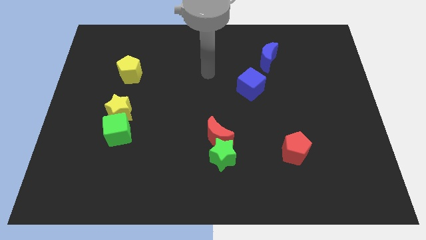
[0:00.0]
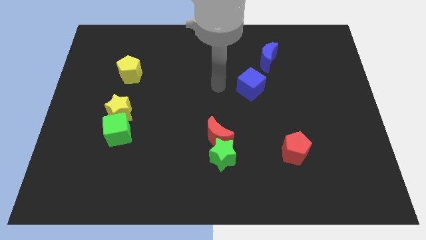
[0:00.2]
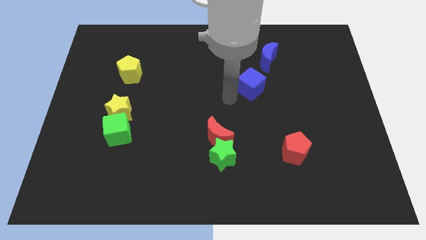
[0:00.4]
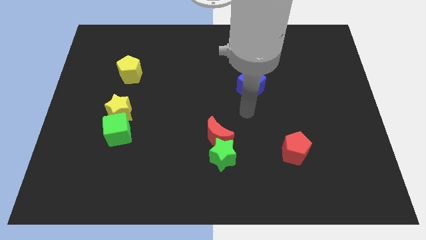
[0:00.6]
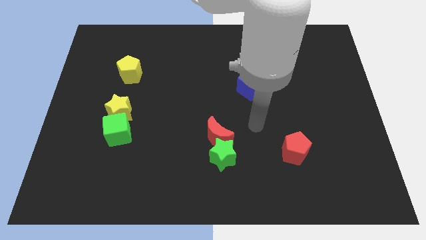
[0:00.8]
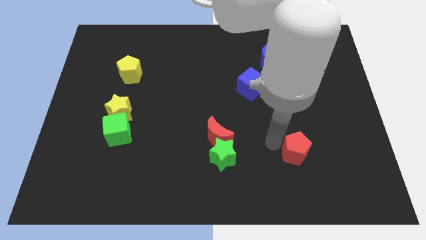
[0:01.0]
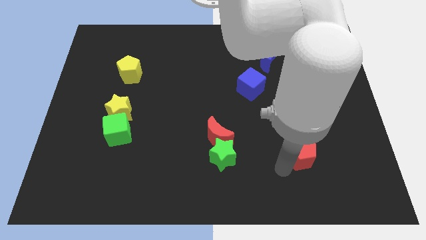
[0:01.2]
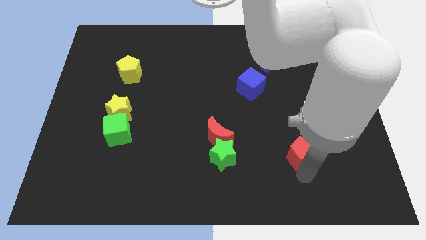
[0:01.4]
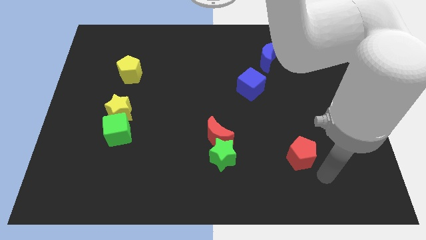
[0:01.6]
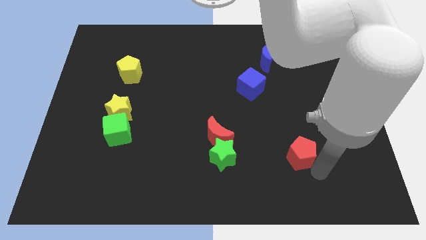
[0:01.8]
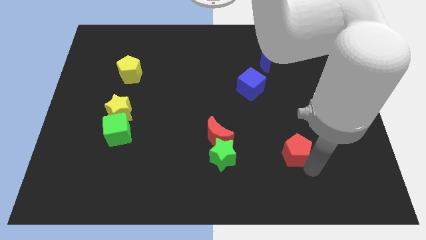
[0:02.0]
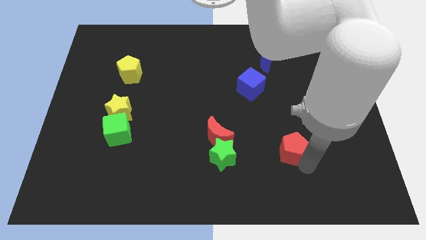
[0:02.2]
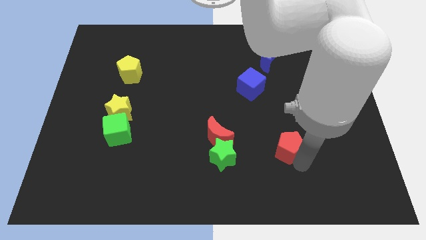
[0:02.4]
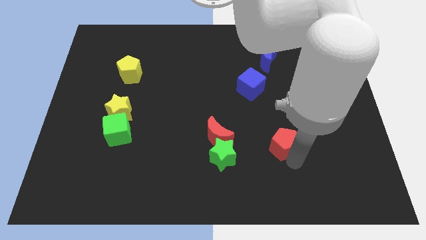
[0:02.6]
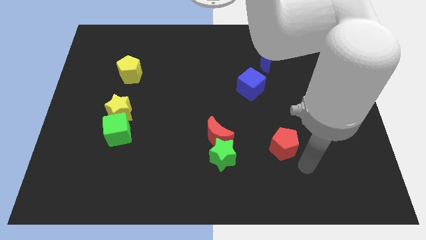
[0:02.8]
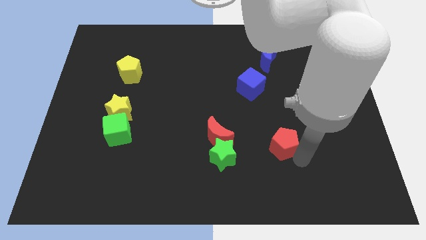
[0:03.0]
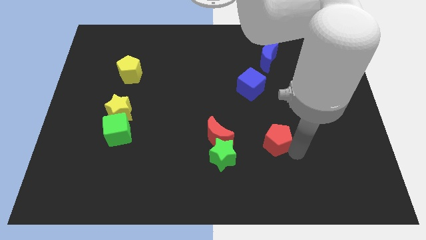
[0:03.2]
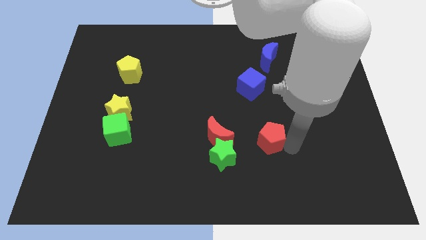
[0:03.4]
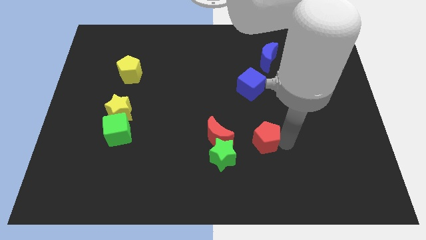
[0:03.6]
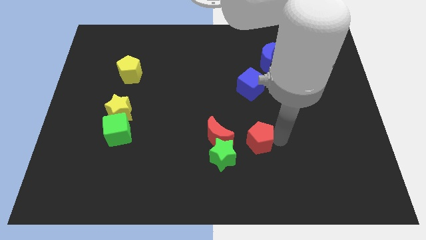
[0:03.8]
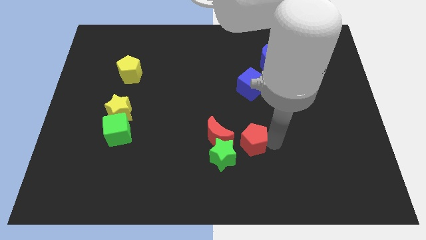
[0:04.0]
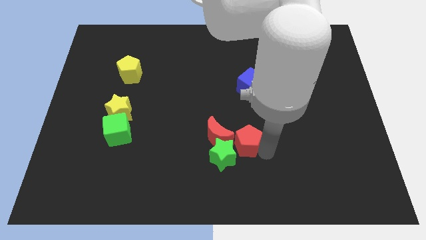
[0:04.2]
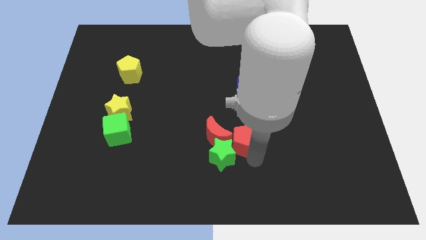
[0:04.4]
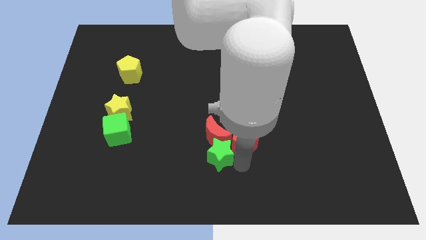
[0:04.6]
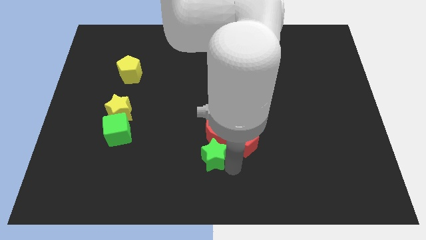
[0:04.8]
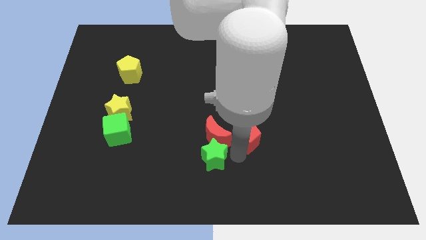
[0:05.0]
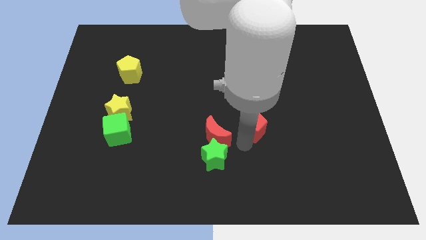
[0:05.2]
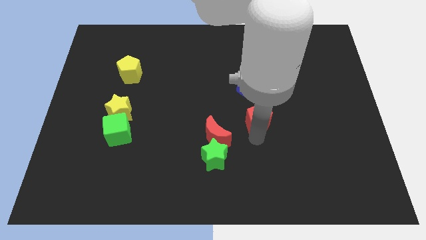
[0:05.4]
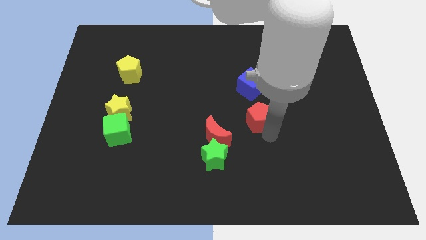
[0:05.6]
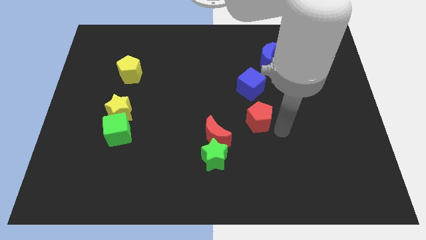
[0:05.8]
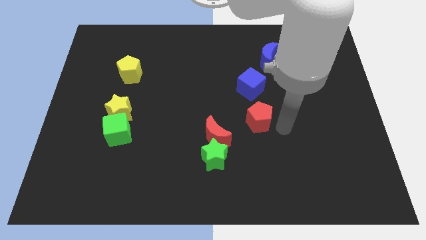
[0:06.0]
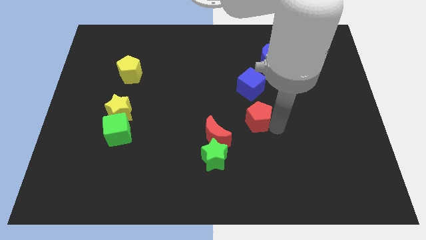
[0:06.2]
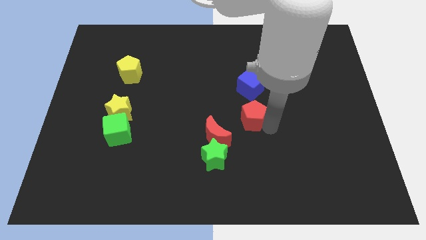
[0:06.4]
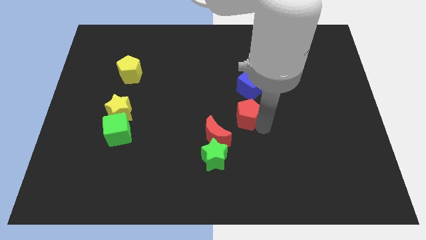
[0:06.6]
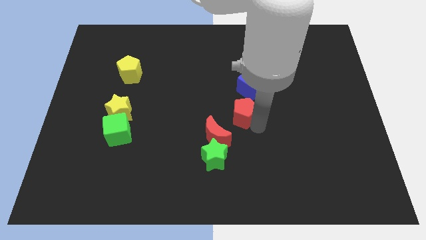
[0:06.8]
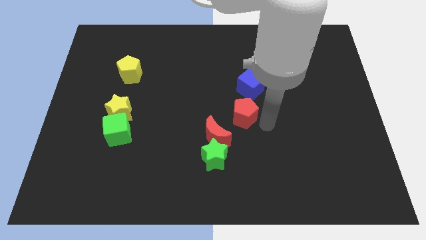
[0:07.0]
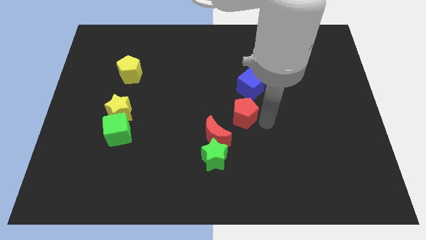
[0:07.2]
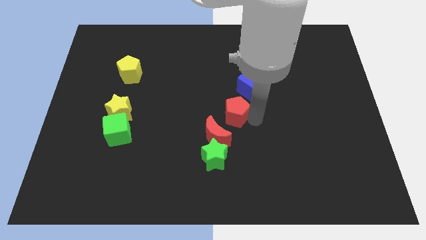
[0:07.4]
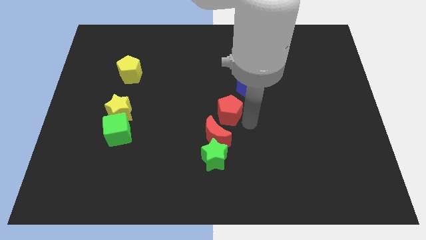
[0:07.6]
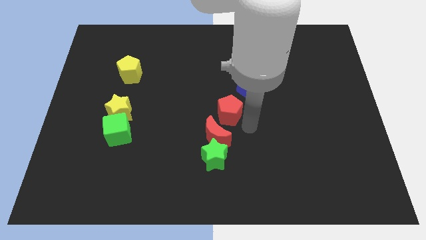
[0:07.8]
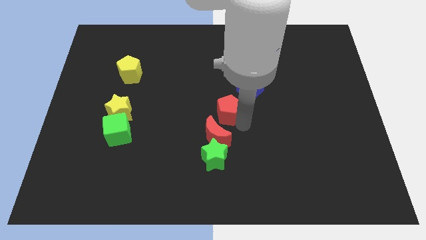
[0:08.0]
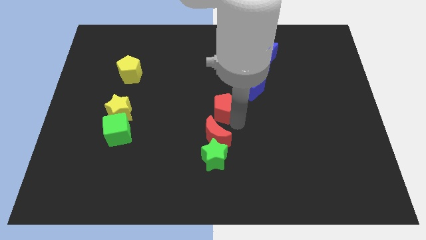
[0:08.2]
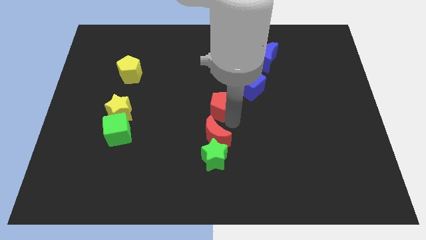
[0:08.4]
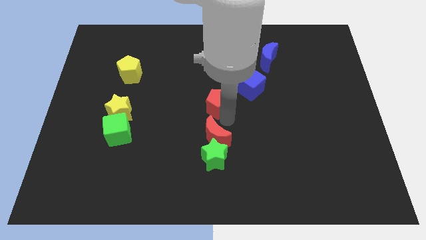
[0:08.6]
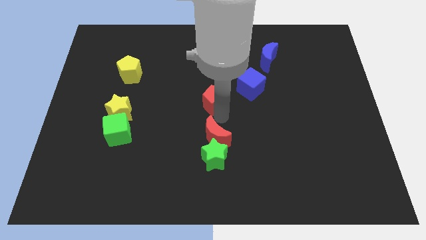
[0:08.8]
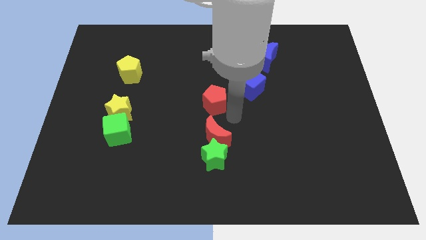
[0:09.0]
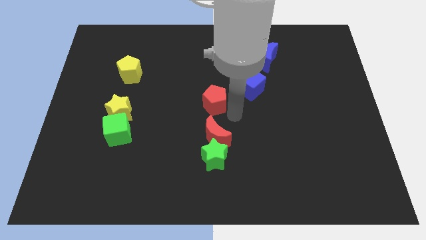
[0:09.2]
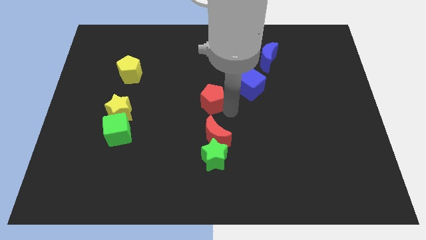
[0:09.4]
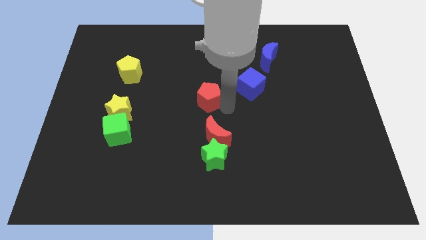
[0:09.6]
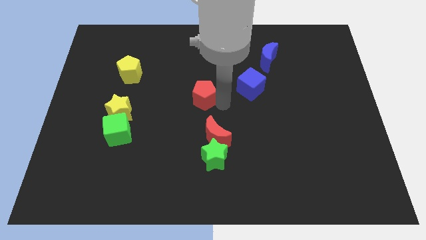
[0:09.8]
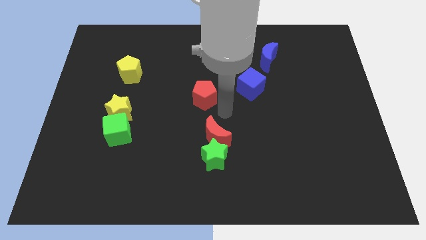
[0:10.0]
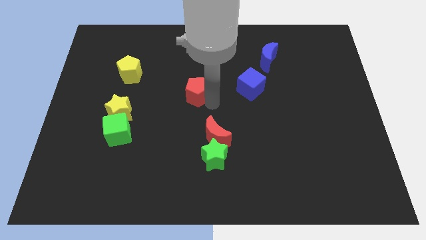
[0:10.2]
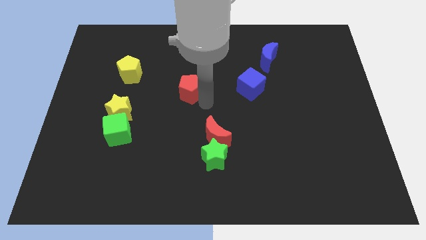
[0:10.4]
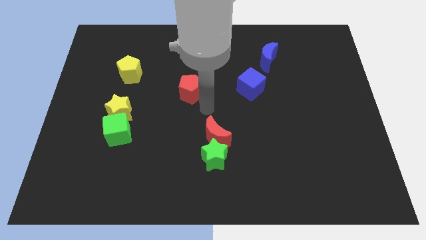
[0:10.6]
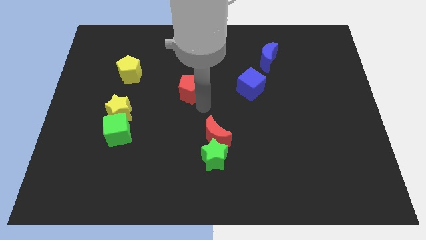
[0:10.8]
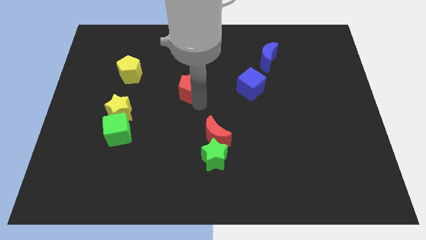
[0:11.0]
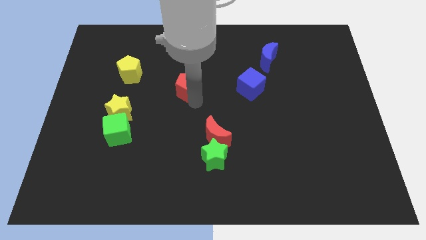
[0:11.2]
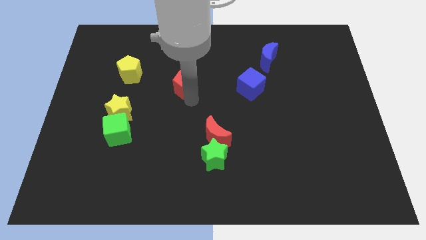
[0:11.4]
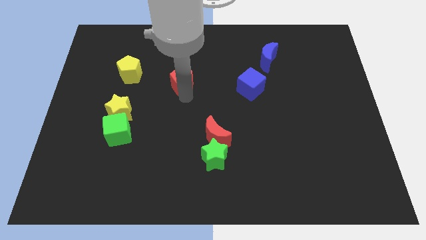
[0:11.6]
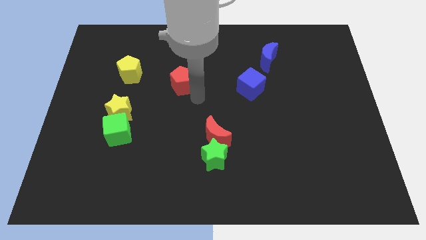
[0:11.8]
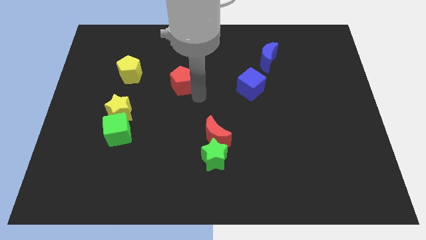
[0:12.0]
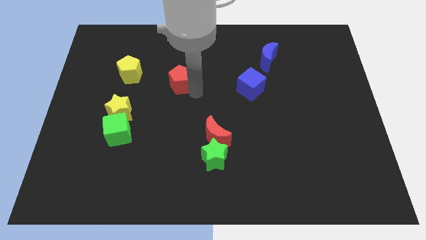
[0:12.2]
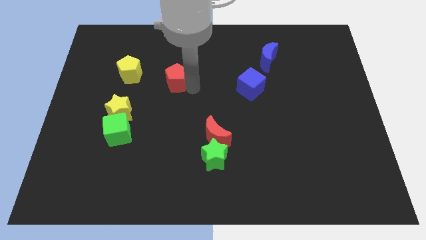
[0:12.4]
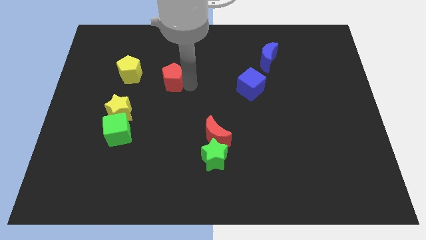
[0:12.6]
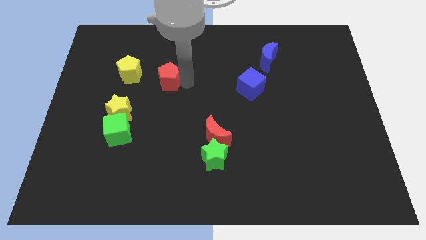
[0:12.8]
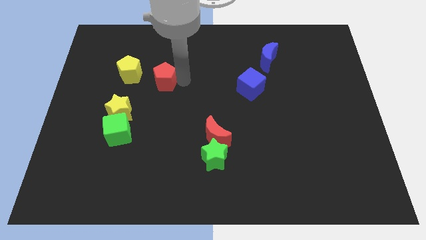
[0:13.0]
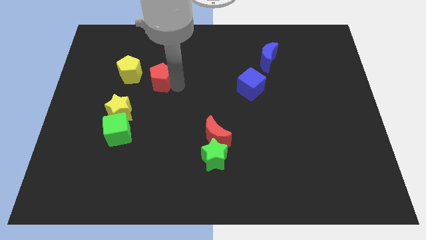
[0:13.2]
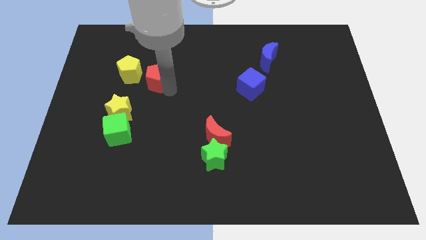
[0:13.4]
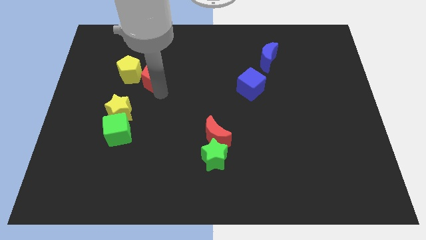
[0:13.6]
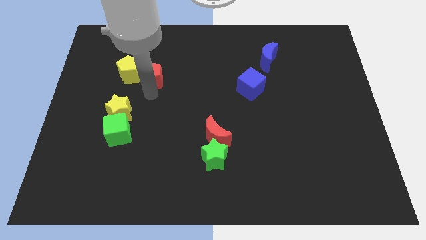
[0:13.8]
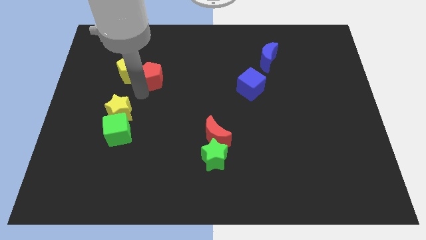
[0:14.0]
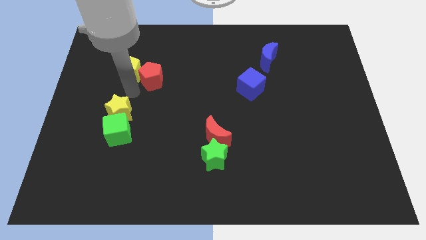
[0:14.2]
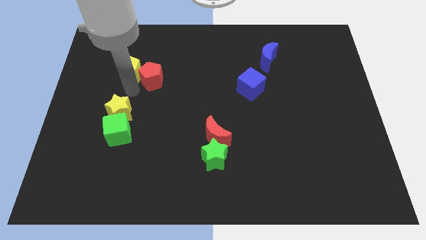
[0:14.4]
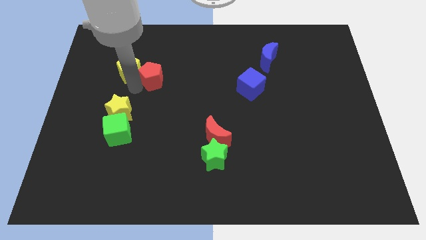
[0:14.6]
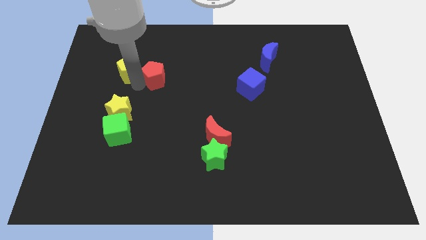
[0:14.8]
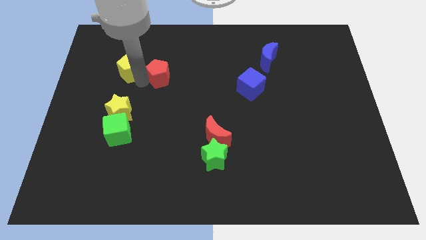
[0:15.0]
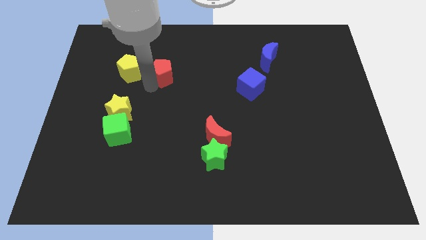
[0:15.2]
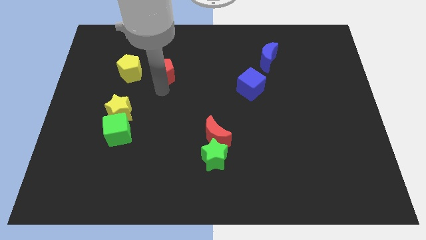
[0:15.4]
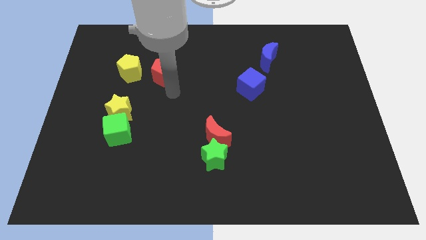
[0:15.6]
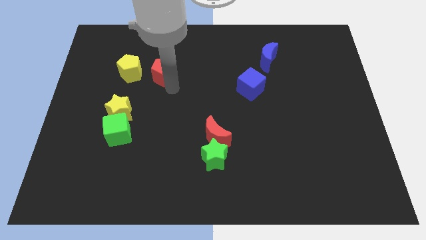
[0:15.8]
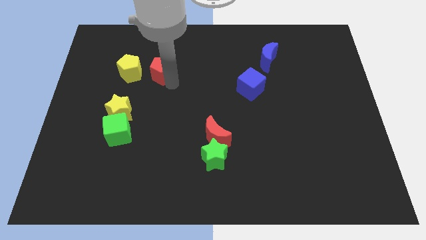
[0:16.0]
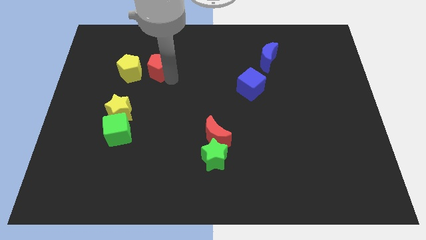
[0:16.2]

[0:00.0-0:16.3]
slide the red pentagon diagonally up and to the right of the yellow pentagon
